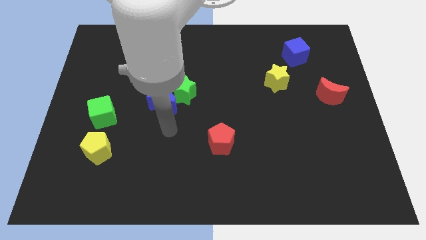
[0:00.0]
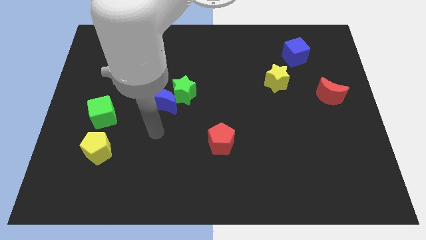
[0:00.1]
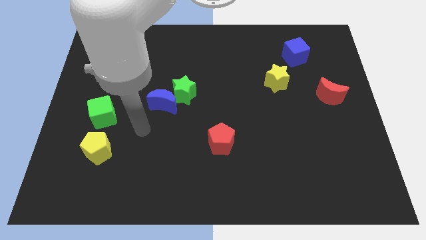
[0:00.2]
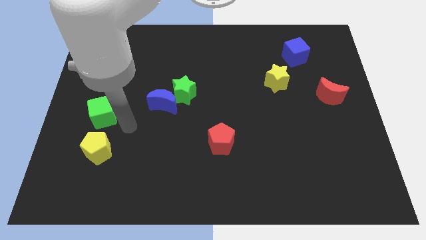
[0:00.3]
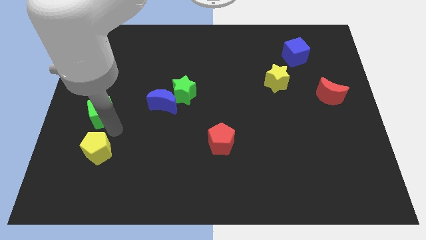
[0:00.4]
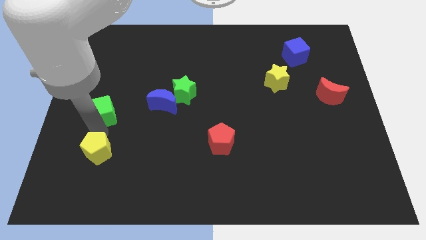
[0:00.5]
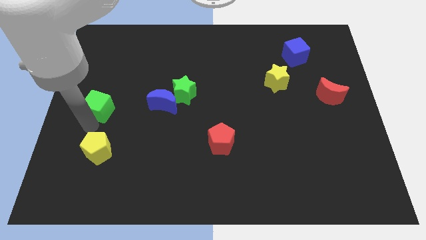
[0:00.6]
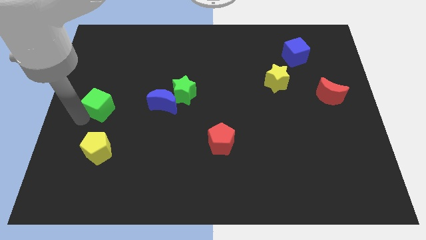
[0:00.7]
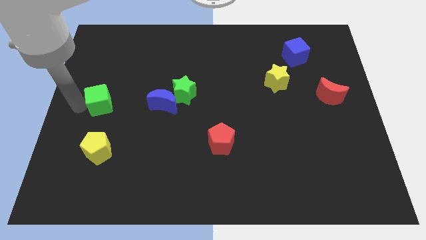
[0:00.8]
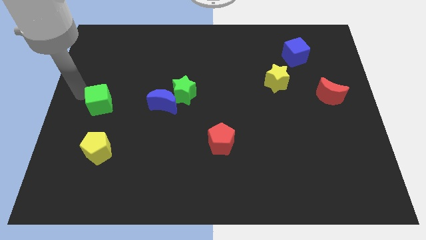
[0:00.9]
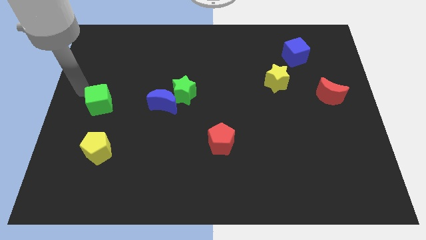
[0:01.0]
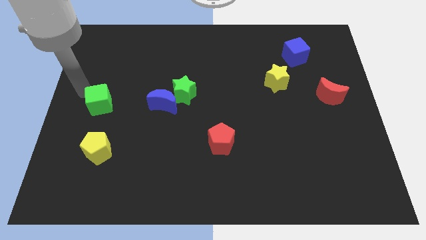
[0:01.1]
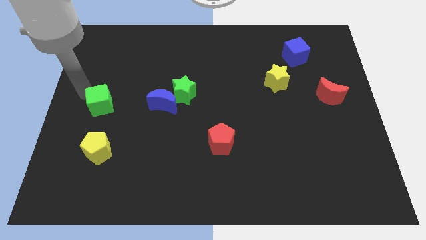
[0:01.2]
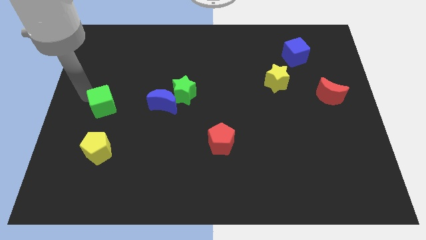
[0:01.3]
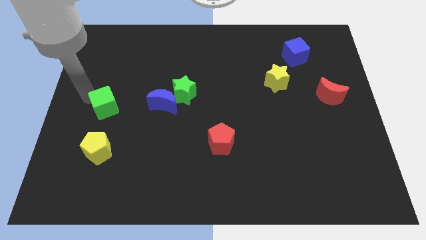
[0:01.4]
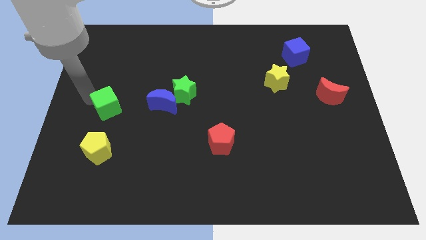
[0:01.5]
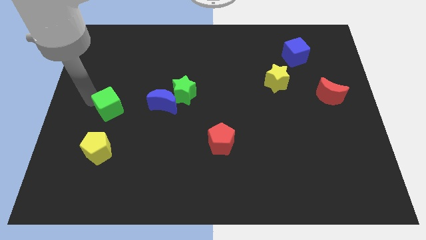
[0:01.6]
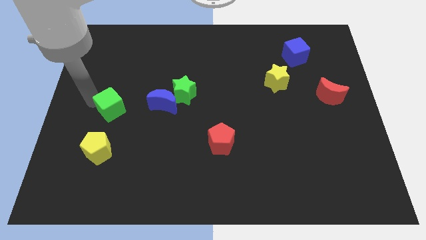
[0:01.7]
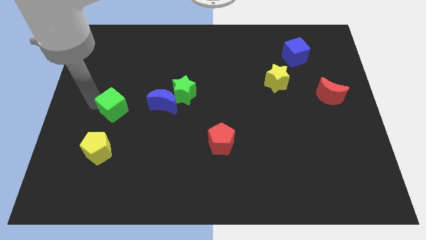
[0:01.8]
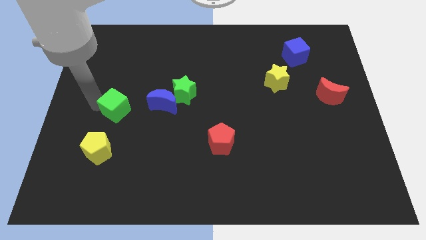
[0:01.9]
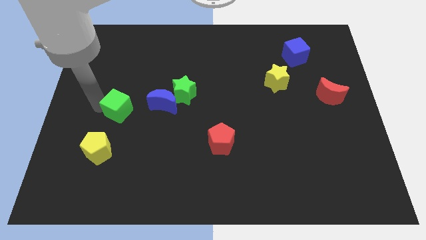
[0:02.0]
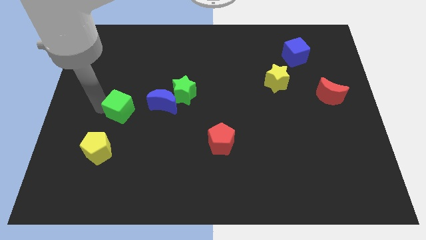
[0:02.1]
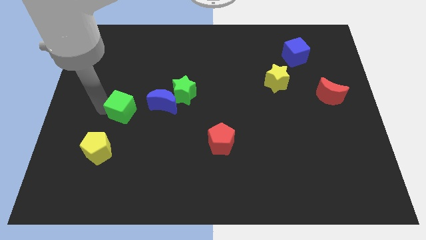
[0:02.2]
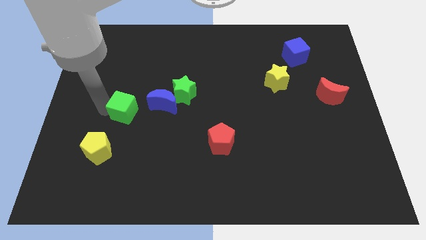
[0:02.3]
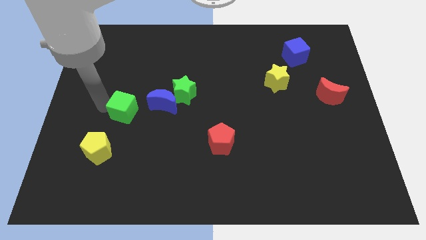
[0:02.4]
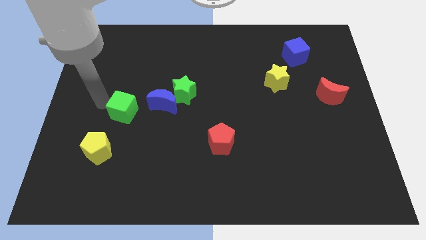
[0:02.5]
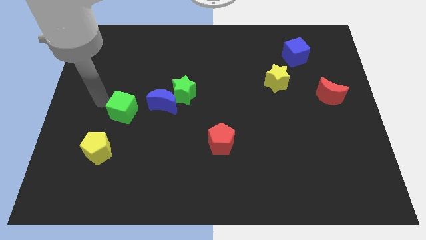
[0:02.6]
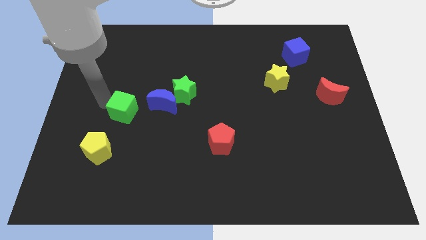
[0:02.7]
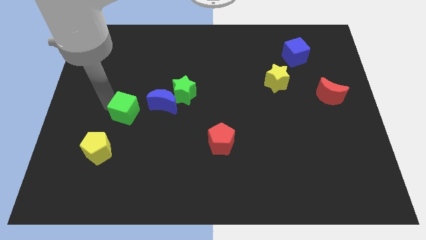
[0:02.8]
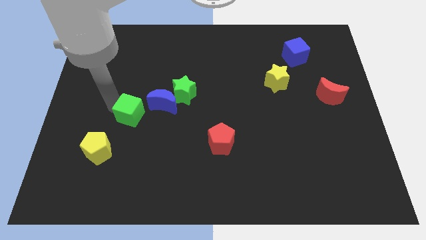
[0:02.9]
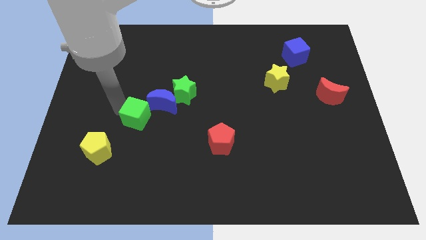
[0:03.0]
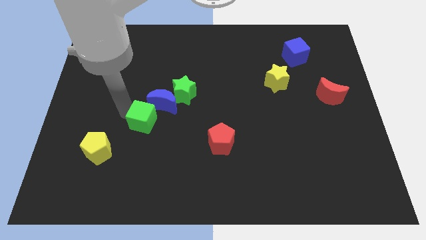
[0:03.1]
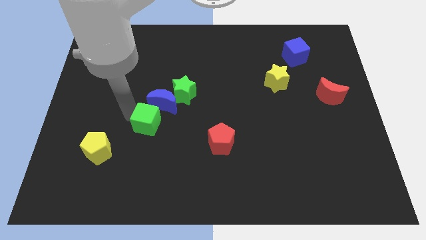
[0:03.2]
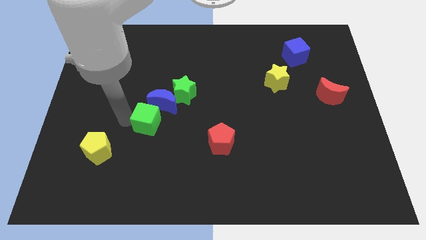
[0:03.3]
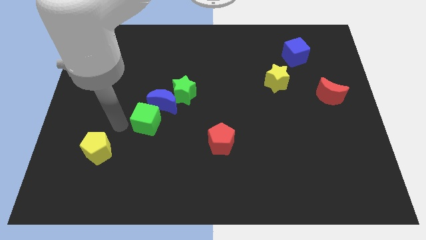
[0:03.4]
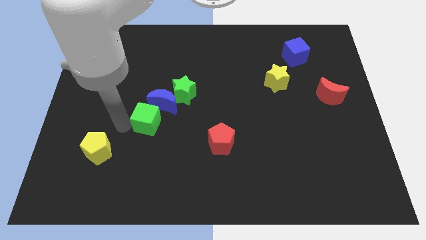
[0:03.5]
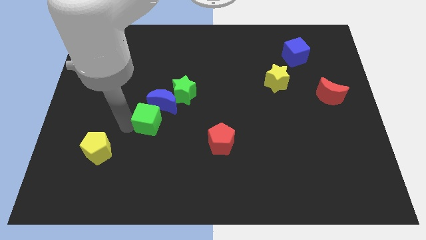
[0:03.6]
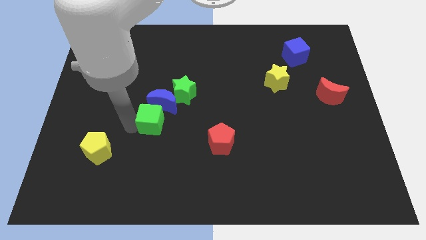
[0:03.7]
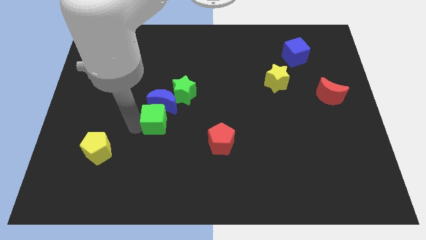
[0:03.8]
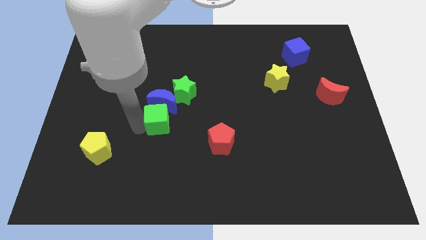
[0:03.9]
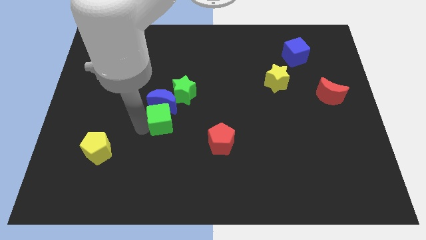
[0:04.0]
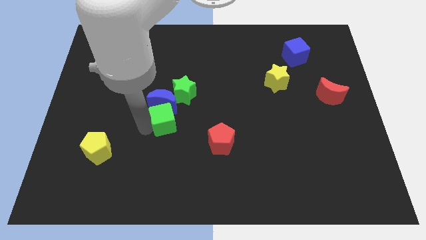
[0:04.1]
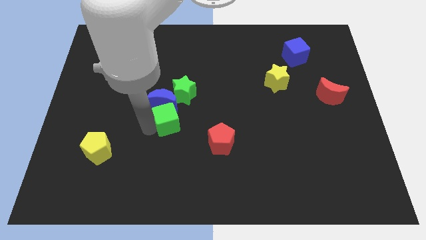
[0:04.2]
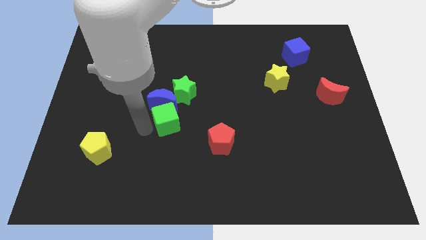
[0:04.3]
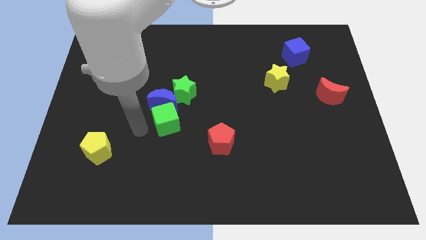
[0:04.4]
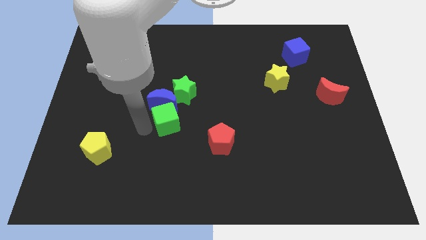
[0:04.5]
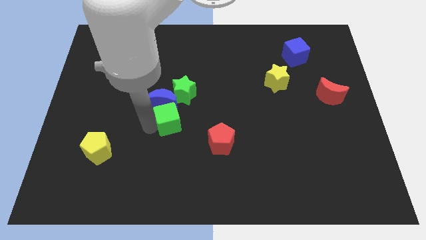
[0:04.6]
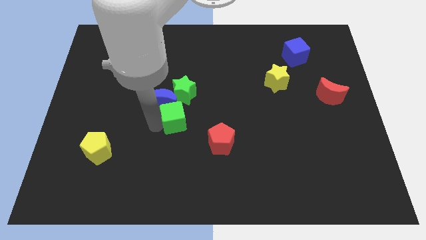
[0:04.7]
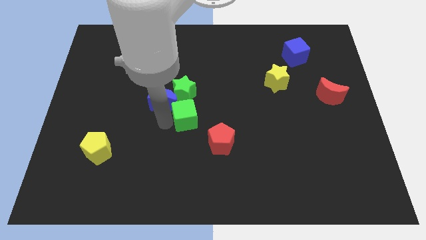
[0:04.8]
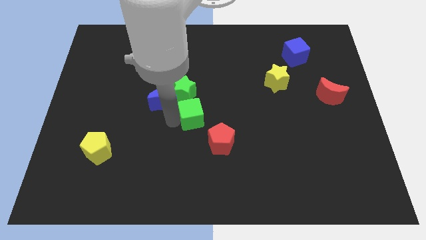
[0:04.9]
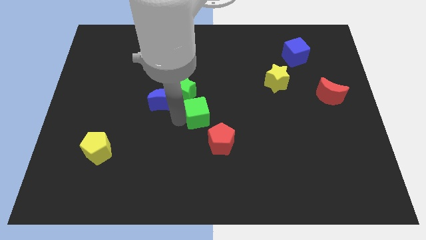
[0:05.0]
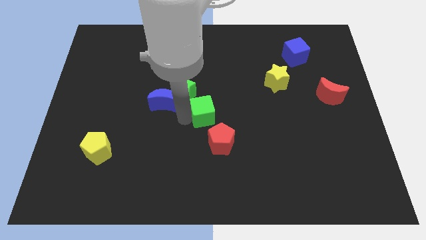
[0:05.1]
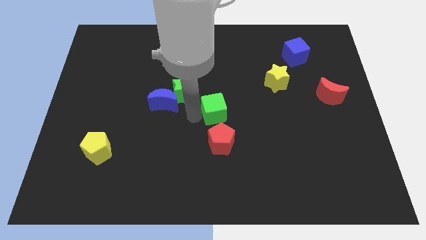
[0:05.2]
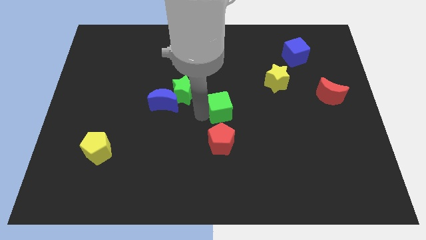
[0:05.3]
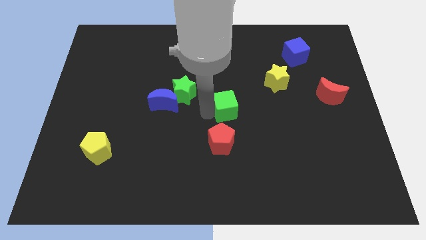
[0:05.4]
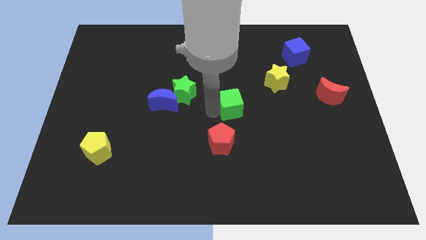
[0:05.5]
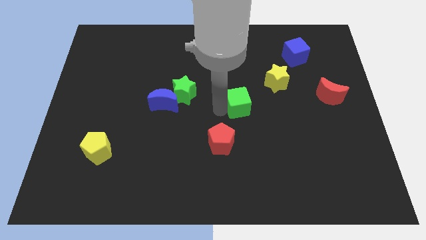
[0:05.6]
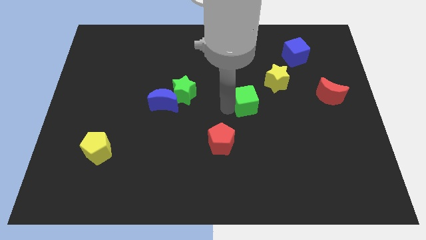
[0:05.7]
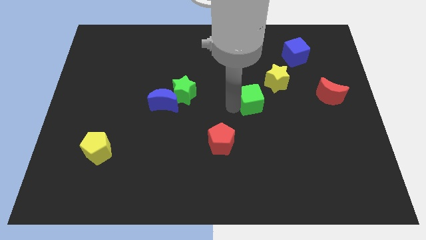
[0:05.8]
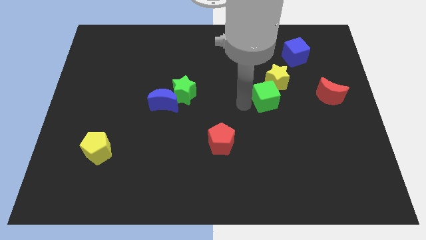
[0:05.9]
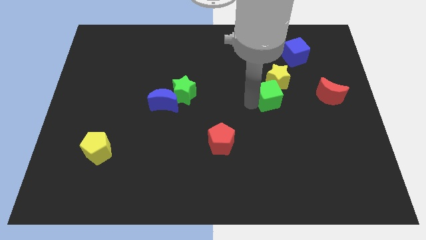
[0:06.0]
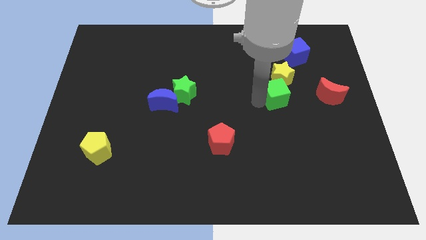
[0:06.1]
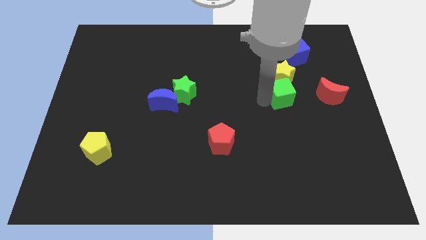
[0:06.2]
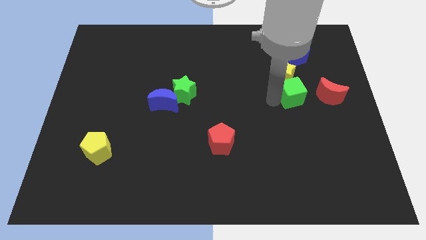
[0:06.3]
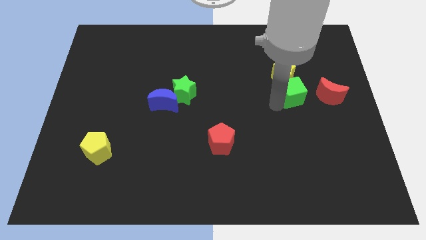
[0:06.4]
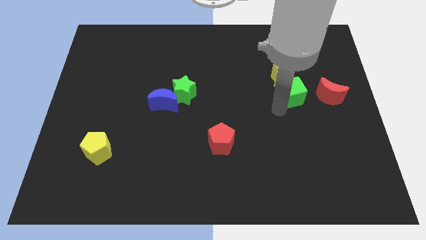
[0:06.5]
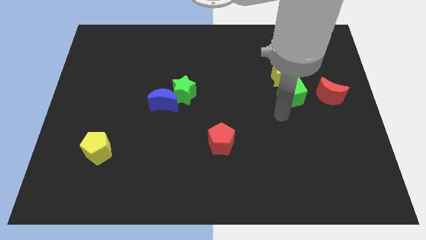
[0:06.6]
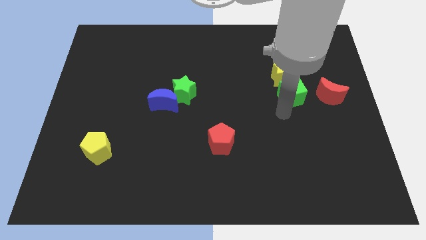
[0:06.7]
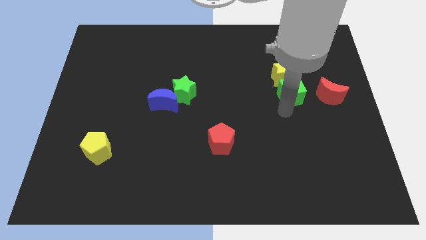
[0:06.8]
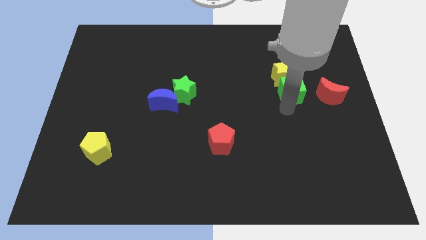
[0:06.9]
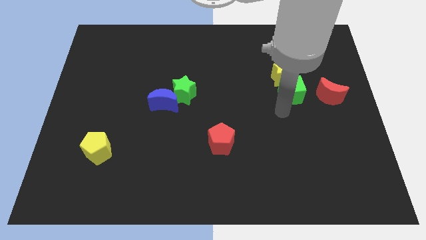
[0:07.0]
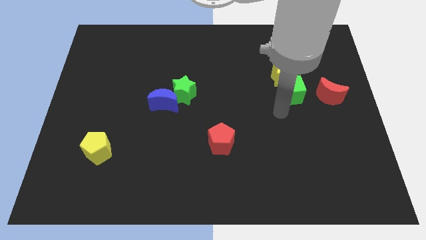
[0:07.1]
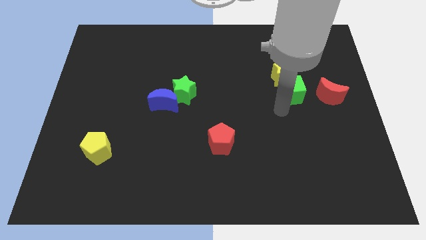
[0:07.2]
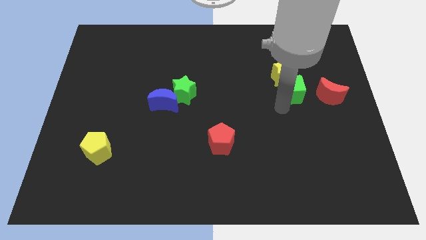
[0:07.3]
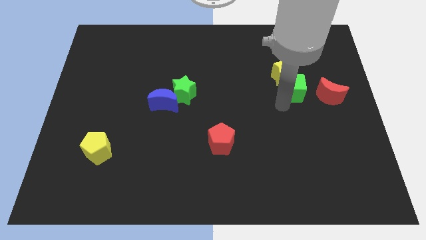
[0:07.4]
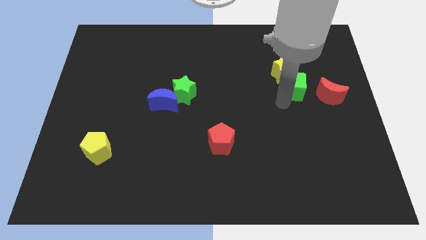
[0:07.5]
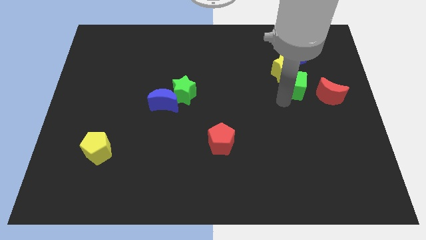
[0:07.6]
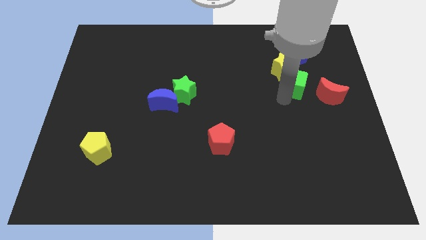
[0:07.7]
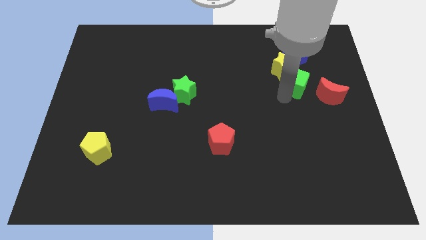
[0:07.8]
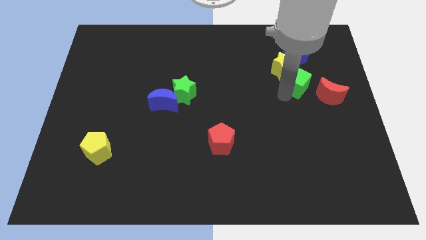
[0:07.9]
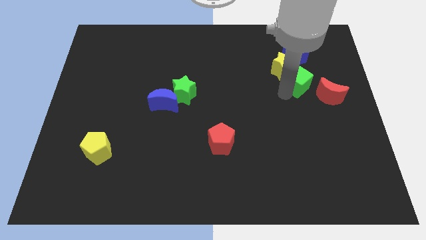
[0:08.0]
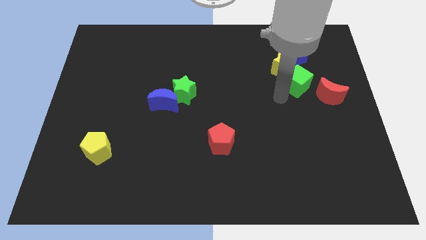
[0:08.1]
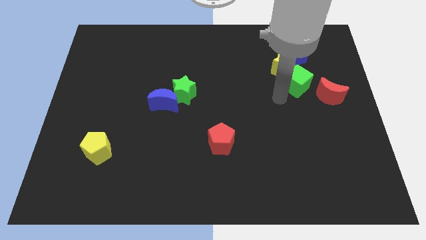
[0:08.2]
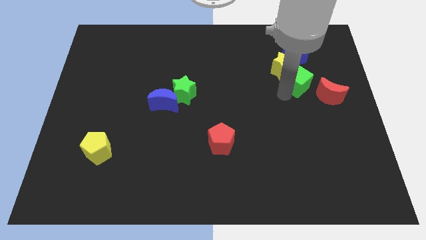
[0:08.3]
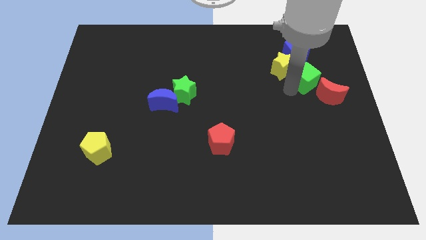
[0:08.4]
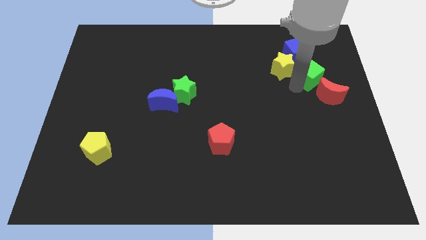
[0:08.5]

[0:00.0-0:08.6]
put the green cube to the top of the red moon
